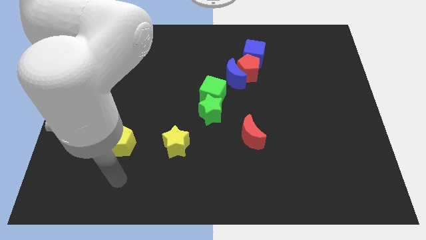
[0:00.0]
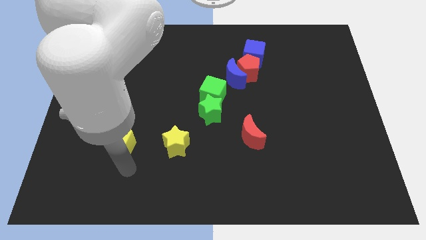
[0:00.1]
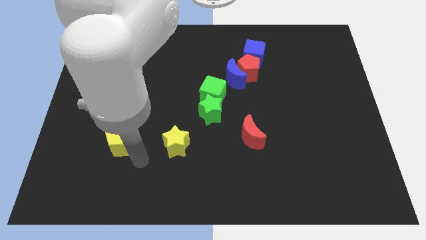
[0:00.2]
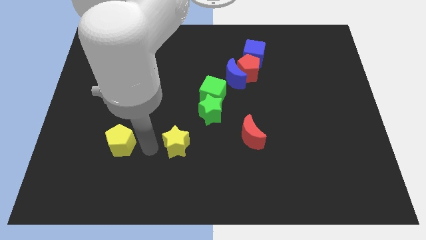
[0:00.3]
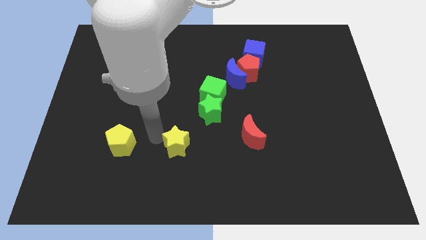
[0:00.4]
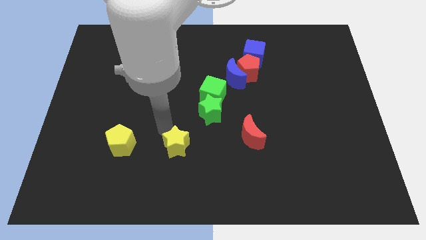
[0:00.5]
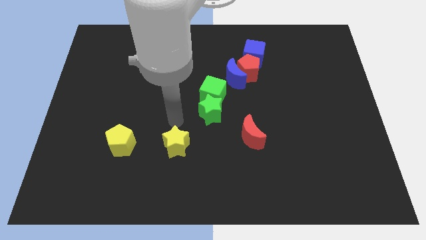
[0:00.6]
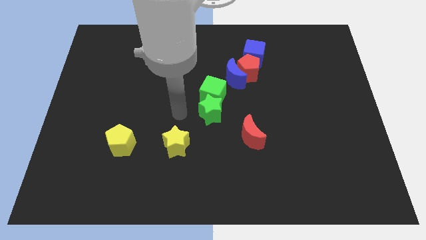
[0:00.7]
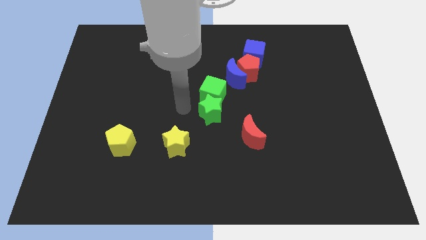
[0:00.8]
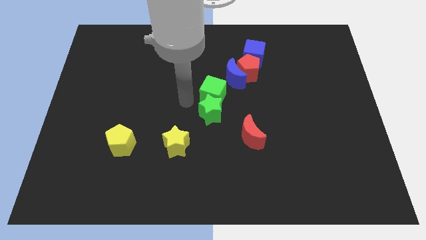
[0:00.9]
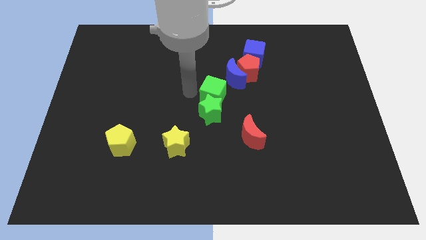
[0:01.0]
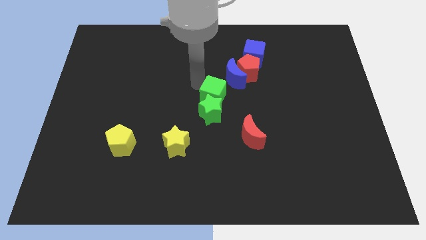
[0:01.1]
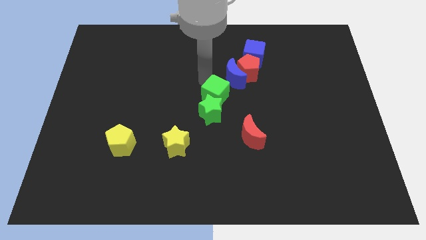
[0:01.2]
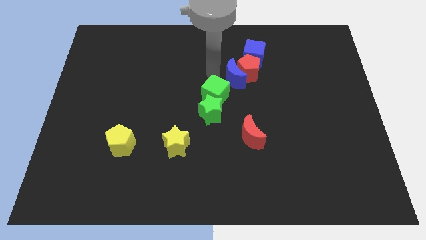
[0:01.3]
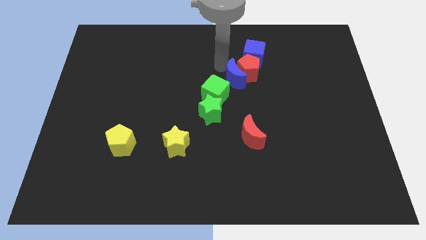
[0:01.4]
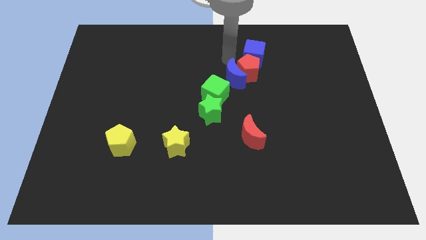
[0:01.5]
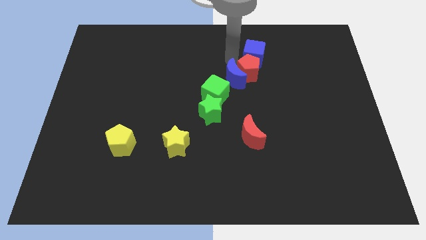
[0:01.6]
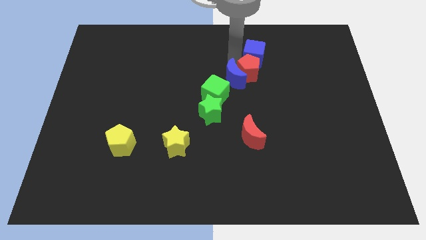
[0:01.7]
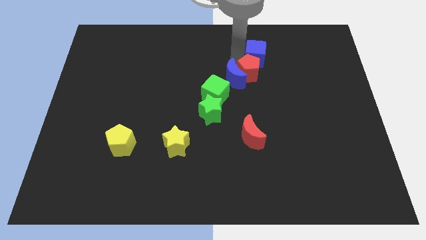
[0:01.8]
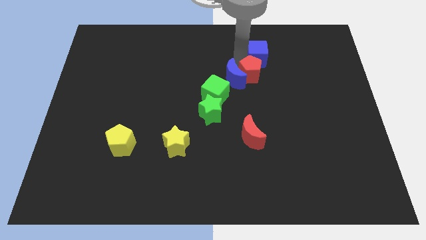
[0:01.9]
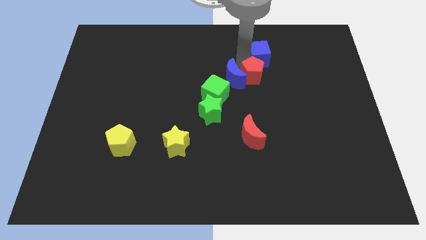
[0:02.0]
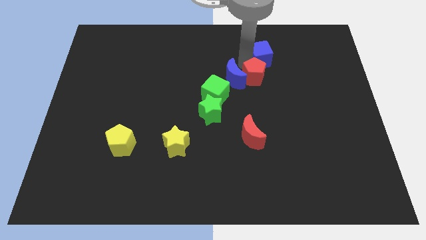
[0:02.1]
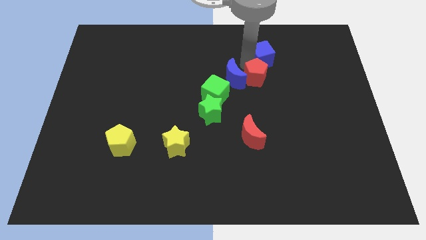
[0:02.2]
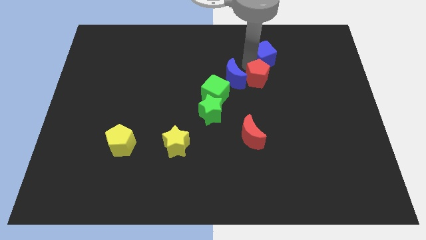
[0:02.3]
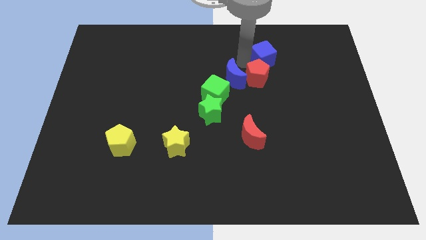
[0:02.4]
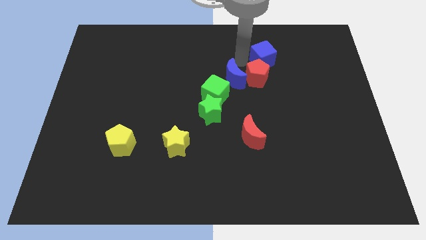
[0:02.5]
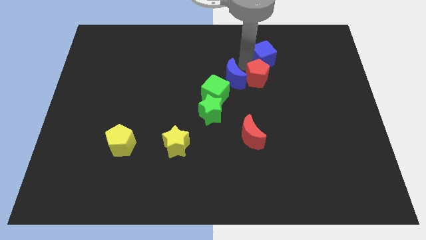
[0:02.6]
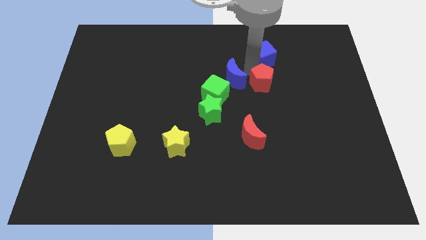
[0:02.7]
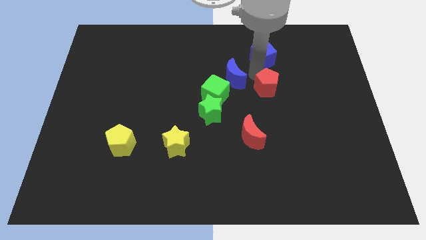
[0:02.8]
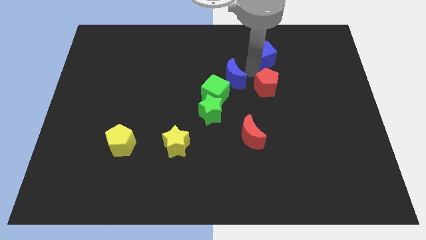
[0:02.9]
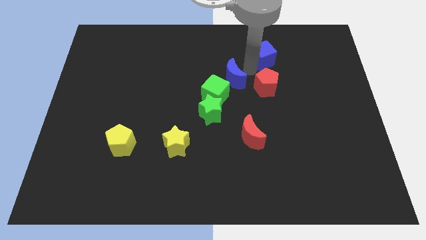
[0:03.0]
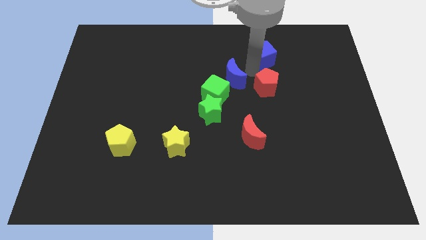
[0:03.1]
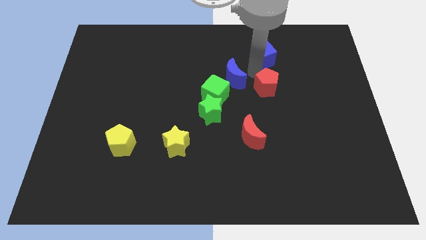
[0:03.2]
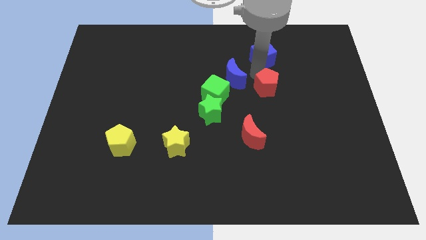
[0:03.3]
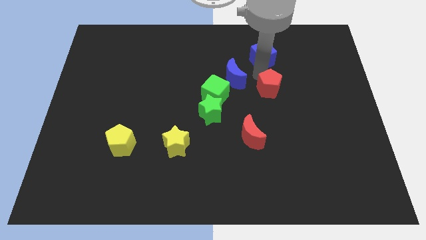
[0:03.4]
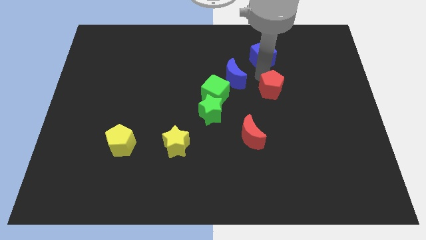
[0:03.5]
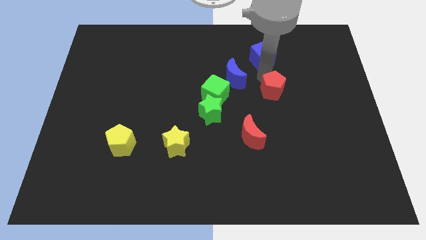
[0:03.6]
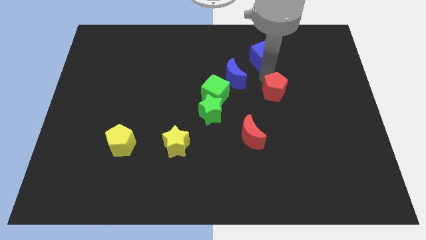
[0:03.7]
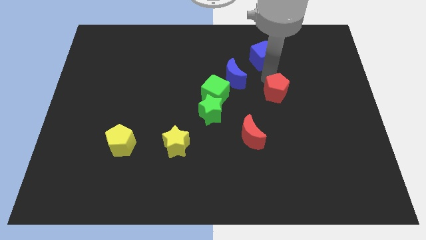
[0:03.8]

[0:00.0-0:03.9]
move the red pentagon away from the blue moon and blue cube

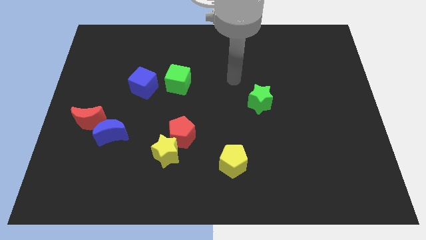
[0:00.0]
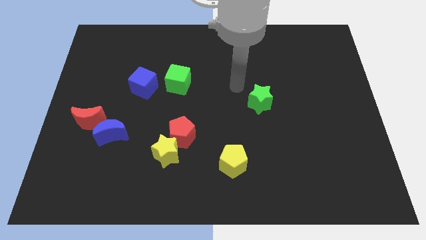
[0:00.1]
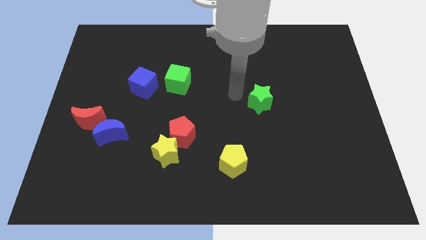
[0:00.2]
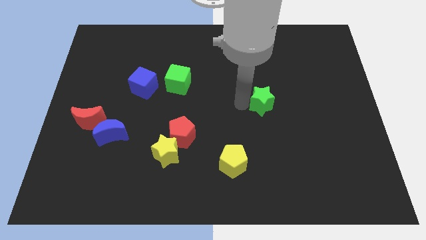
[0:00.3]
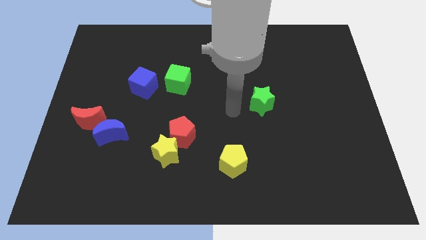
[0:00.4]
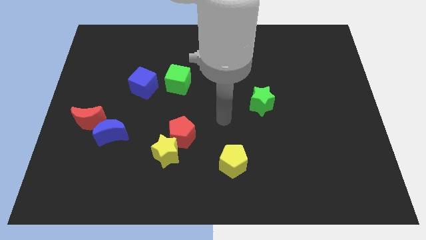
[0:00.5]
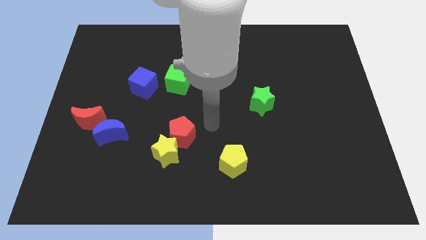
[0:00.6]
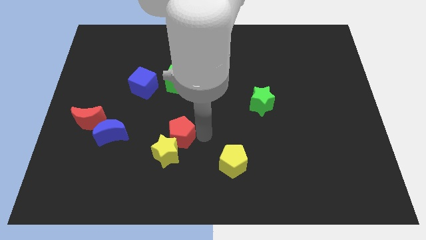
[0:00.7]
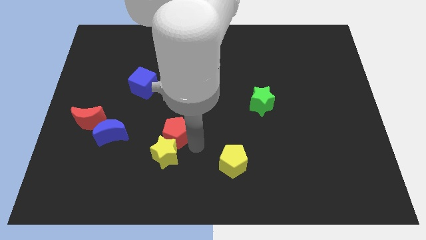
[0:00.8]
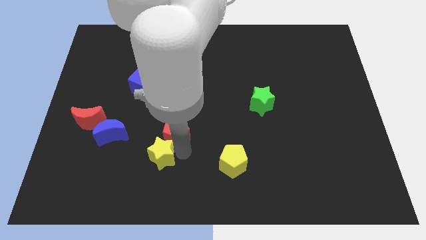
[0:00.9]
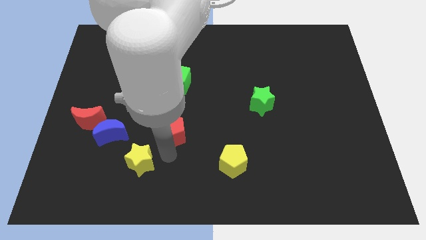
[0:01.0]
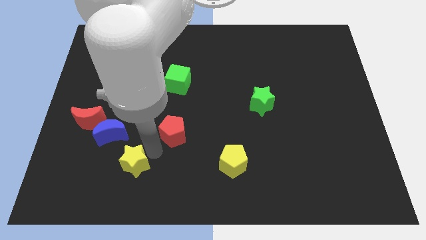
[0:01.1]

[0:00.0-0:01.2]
pull the red pentagon apart from the yellow star

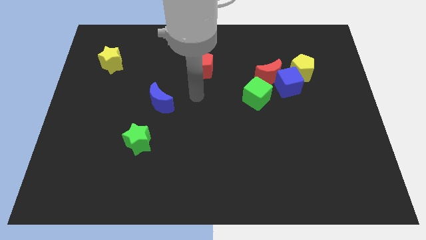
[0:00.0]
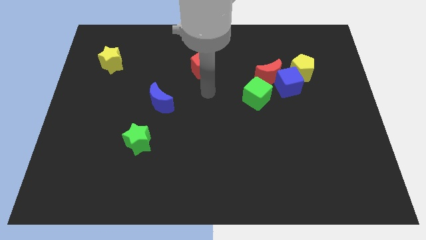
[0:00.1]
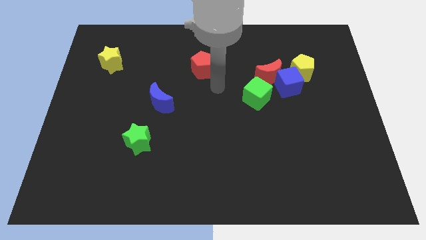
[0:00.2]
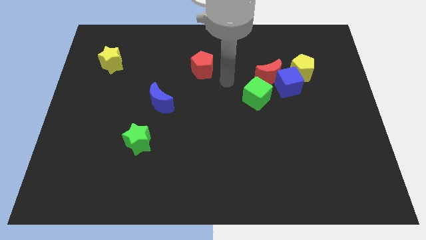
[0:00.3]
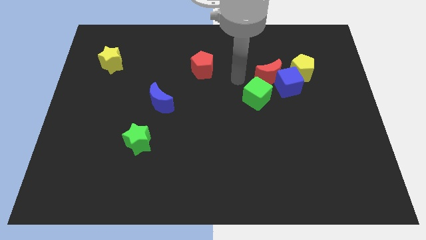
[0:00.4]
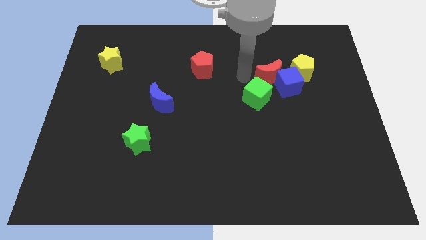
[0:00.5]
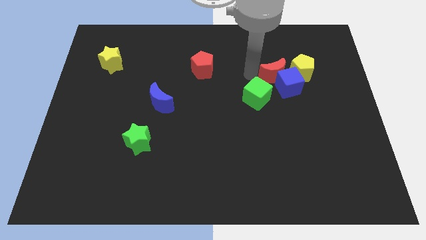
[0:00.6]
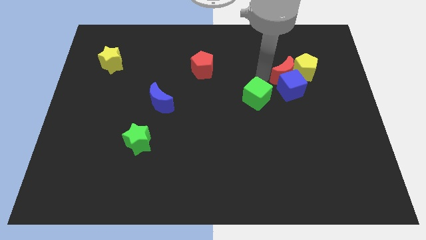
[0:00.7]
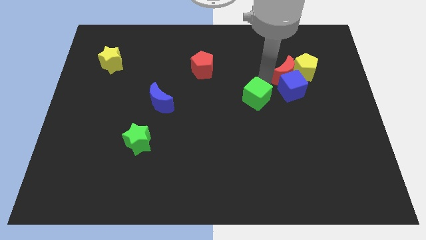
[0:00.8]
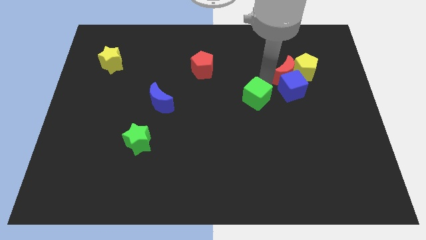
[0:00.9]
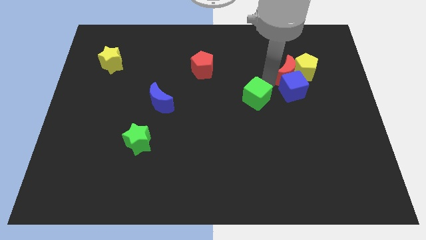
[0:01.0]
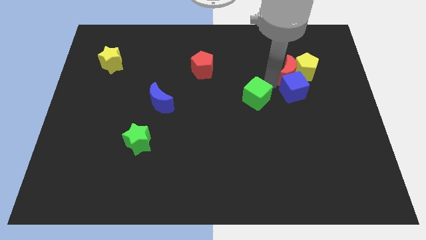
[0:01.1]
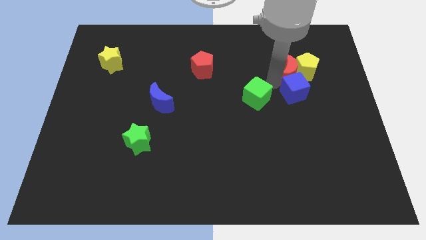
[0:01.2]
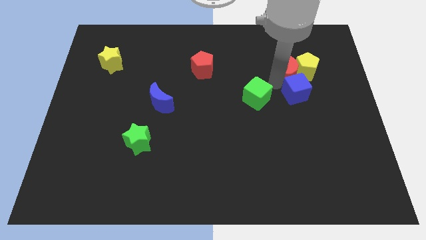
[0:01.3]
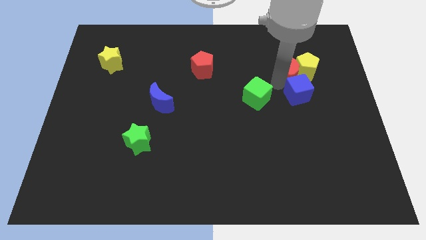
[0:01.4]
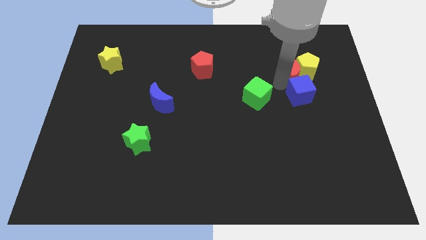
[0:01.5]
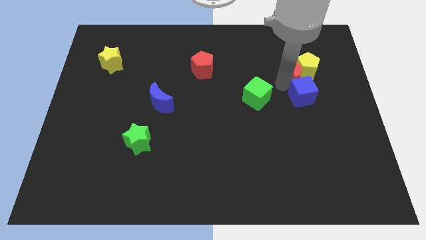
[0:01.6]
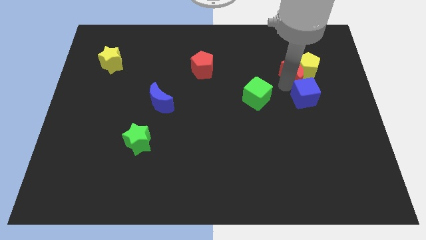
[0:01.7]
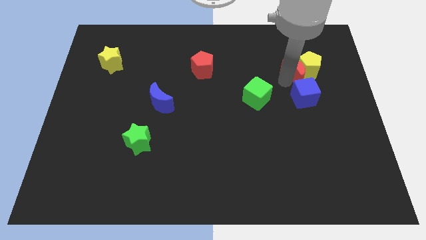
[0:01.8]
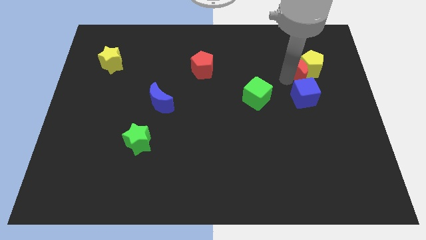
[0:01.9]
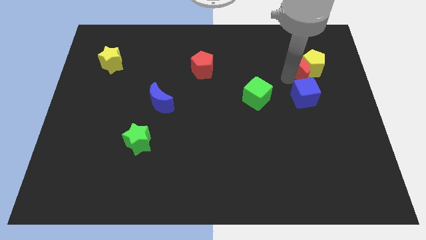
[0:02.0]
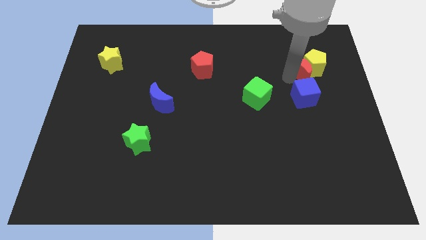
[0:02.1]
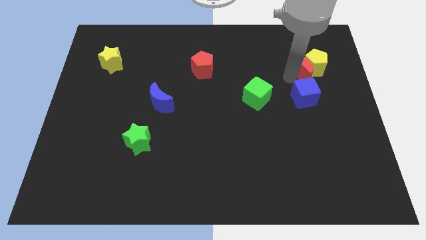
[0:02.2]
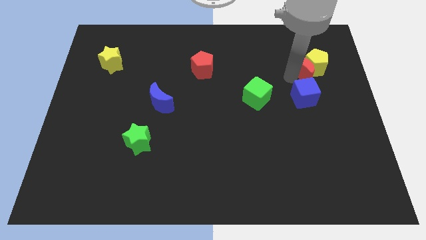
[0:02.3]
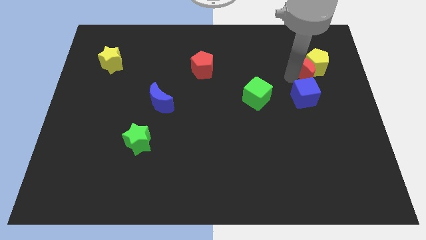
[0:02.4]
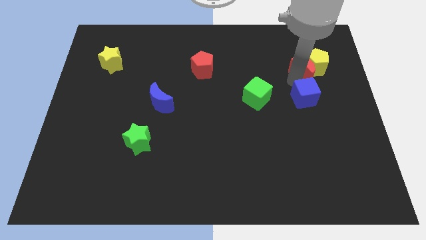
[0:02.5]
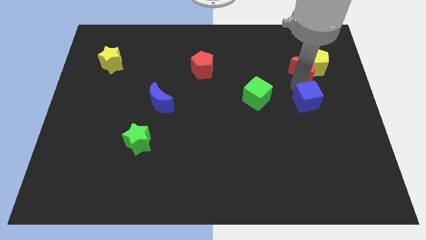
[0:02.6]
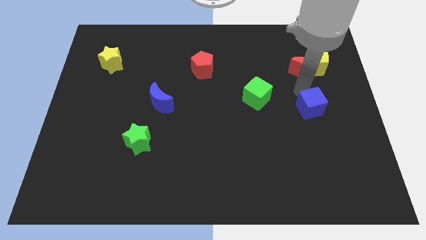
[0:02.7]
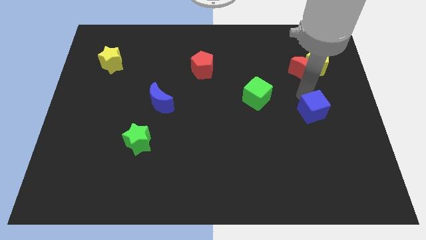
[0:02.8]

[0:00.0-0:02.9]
pull the blue cube apart from the group of blocks

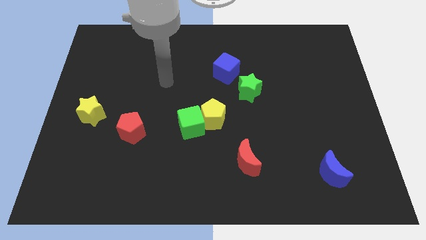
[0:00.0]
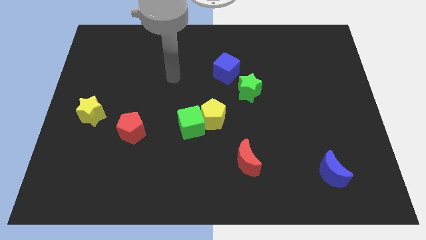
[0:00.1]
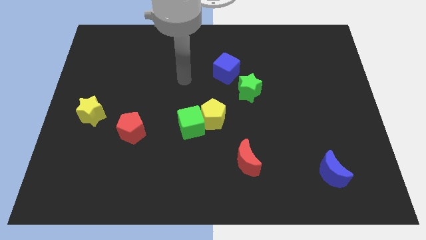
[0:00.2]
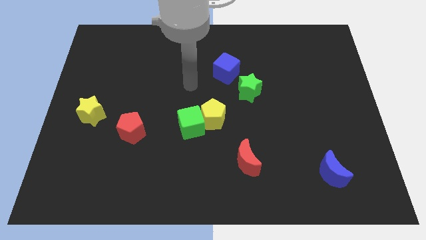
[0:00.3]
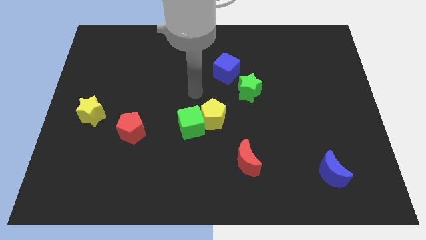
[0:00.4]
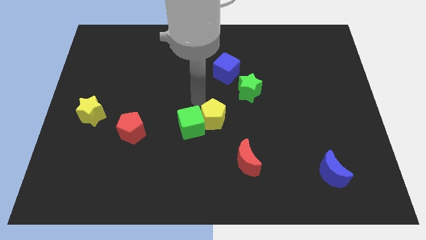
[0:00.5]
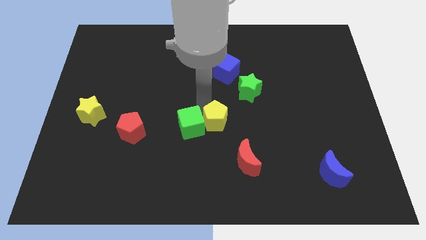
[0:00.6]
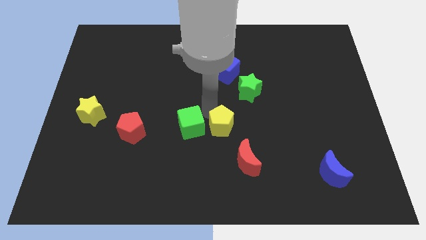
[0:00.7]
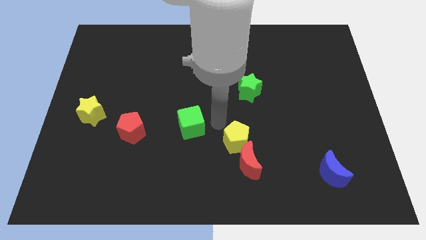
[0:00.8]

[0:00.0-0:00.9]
separate the green cube from the yellow pentagon

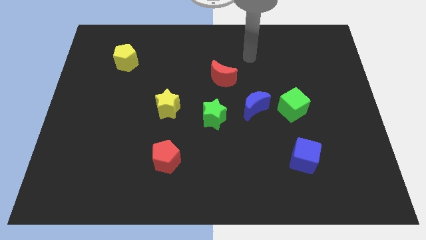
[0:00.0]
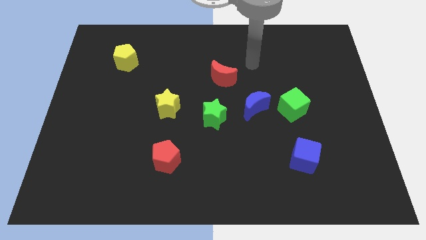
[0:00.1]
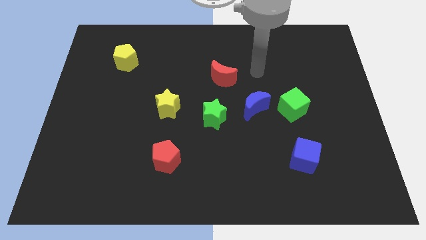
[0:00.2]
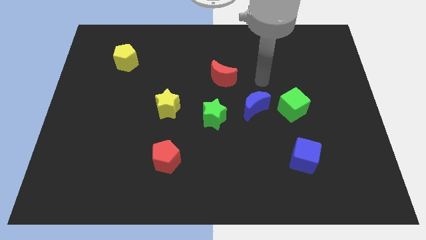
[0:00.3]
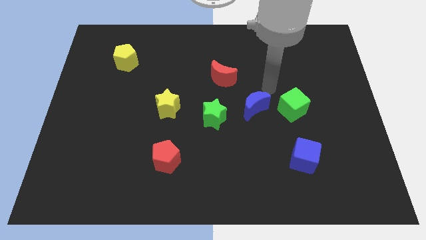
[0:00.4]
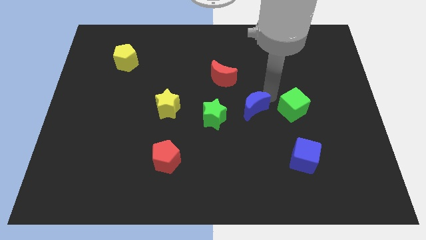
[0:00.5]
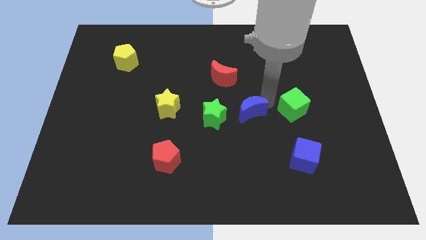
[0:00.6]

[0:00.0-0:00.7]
move the green cube away from the blue moon
